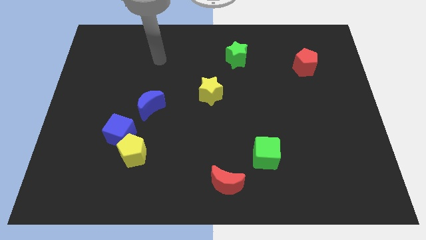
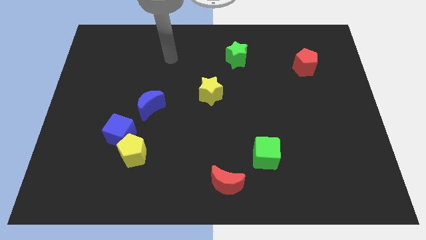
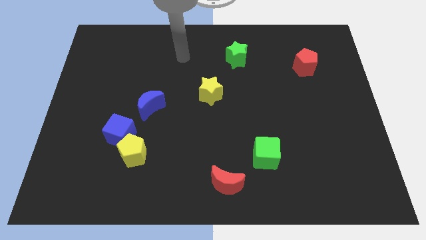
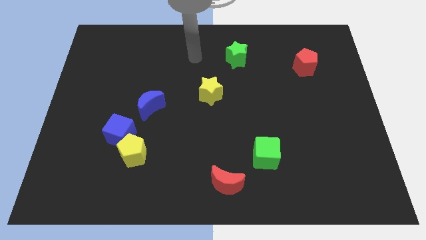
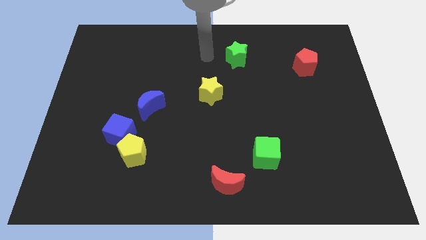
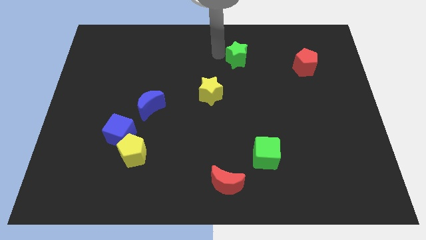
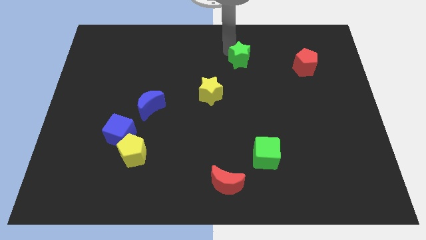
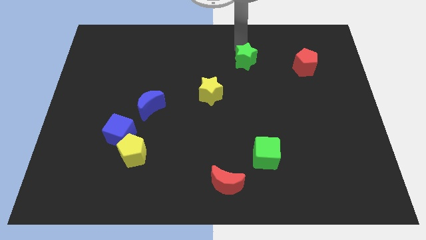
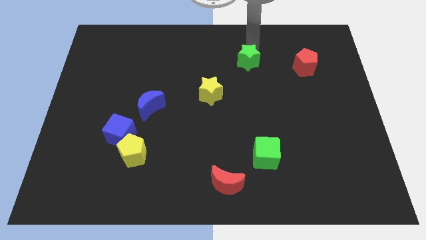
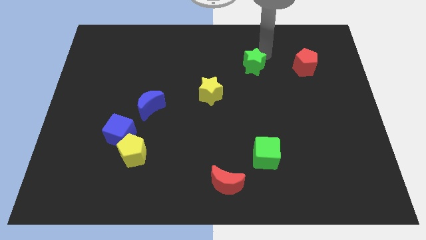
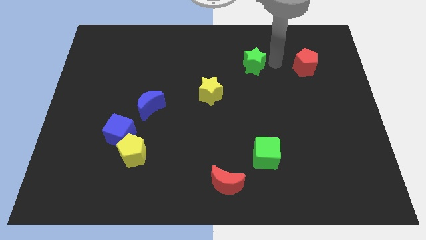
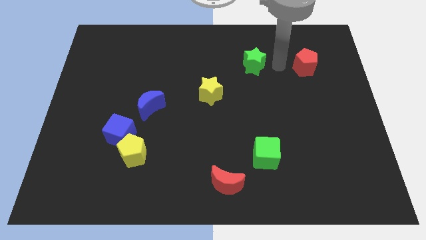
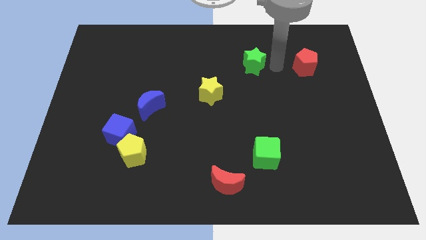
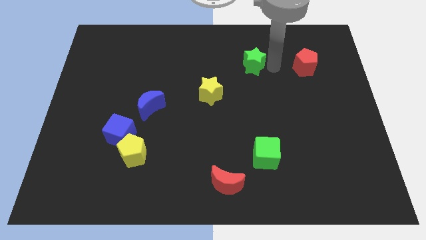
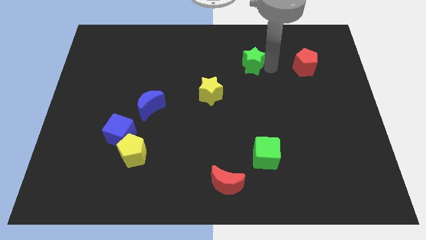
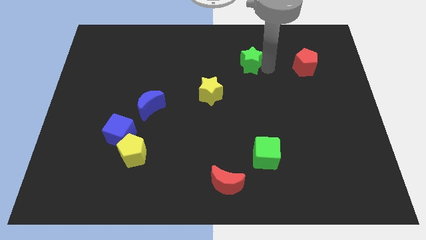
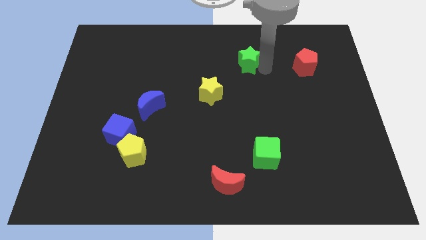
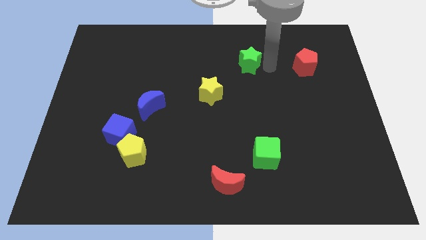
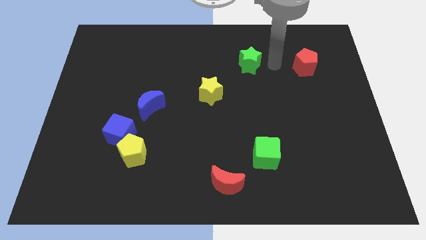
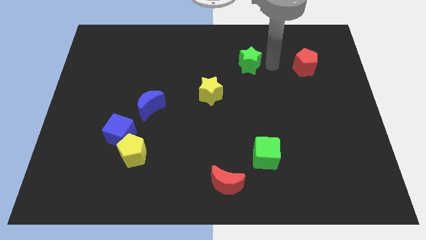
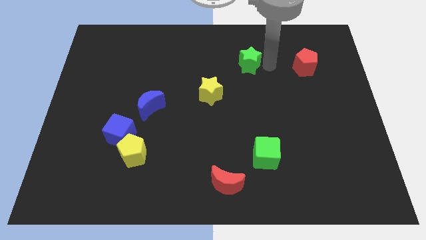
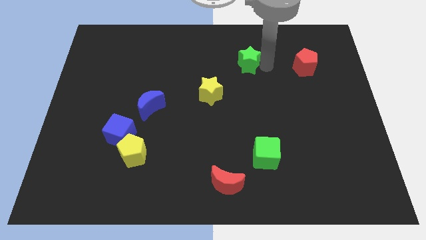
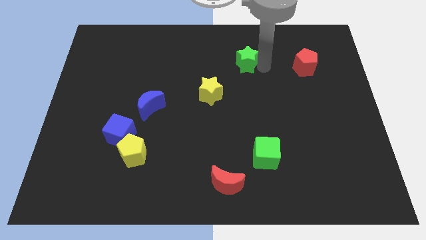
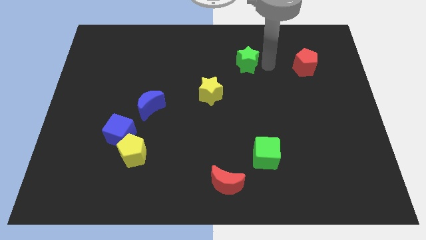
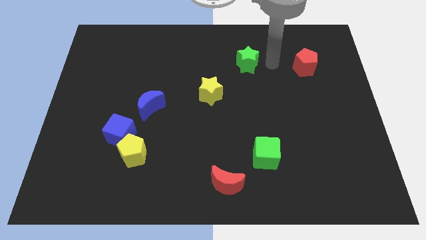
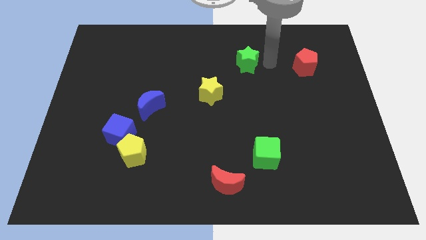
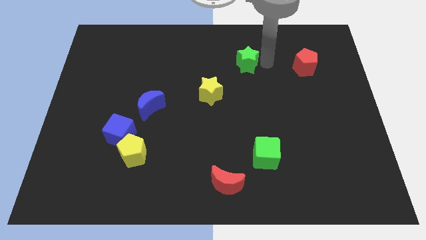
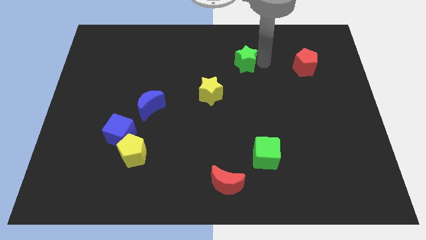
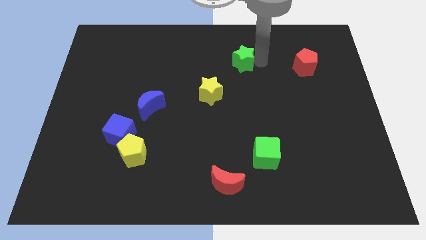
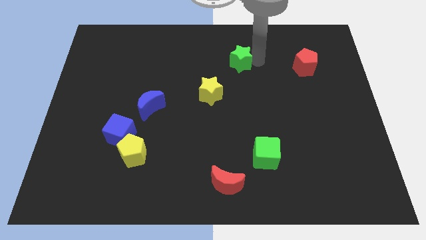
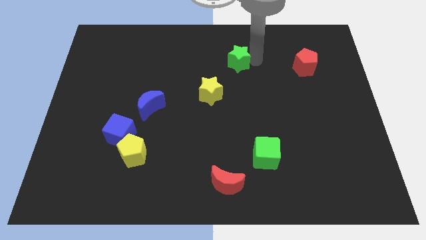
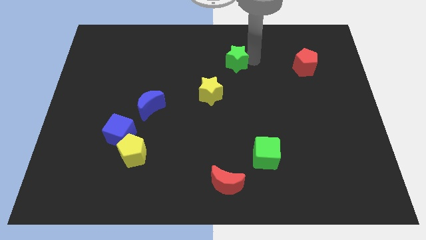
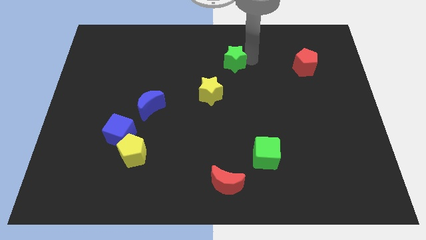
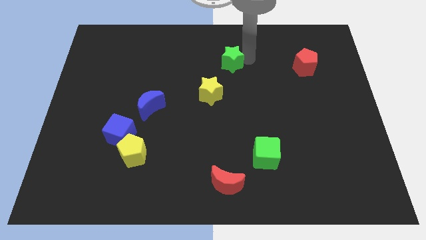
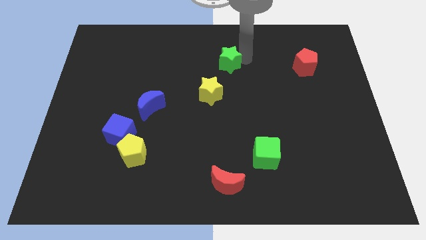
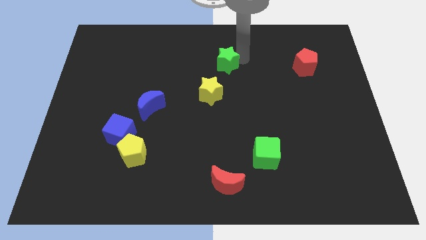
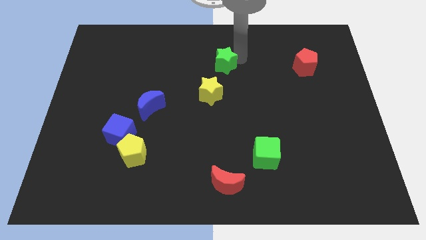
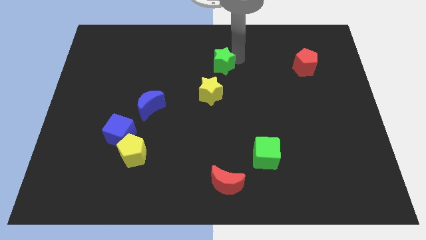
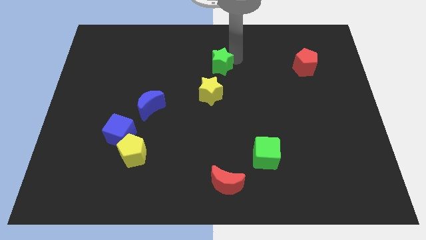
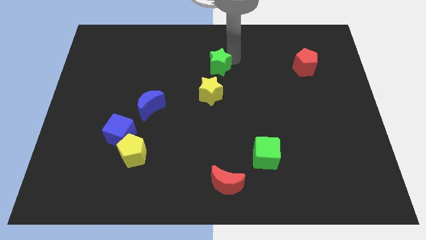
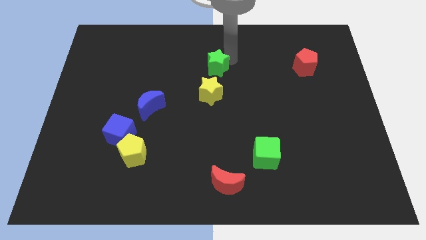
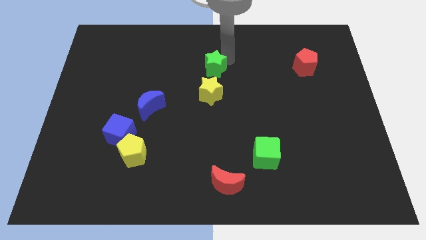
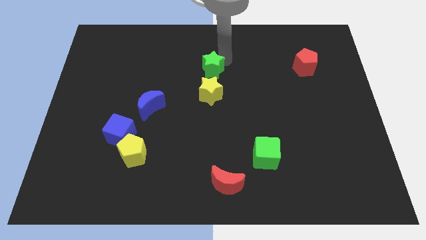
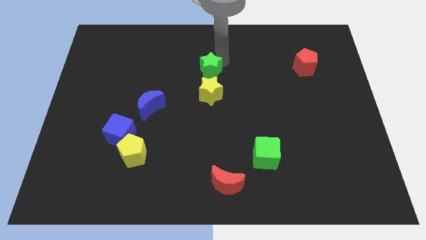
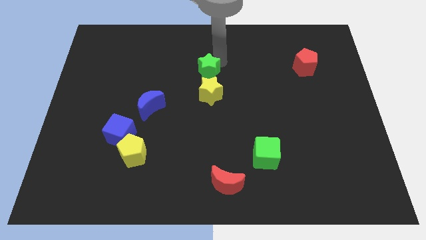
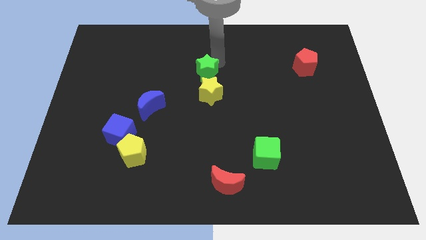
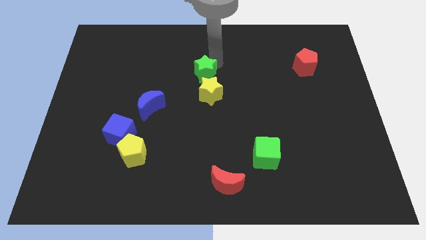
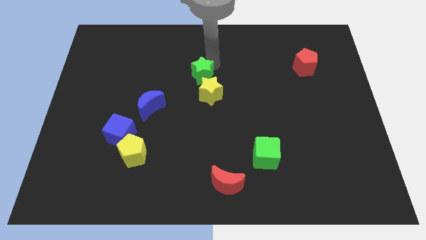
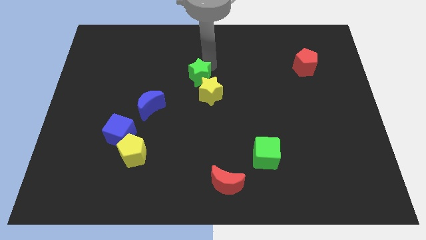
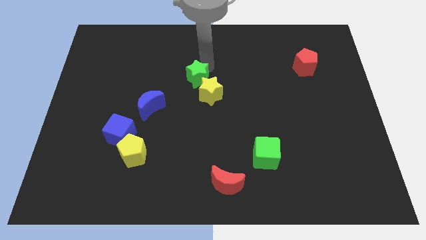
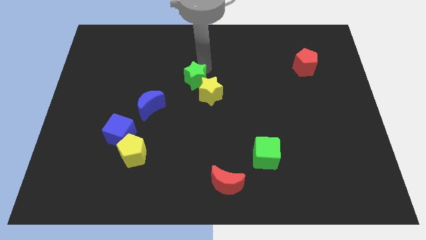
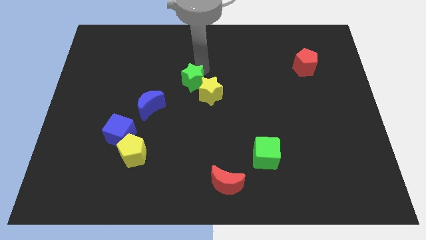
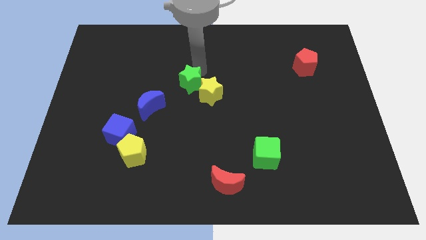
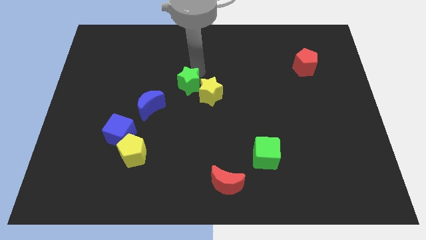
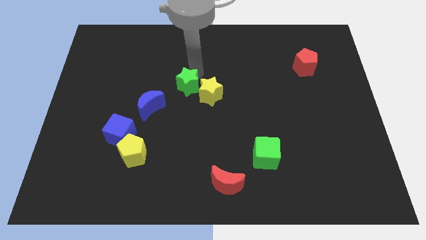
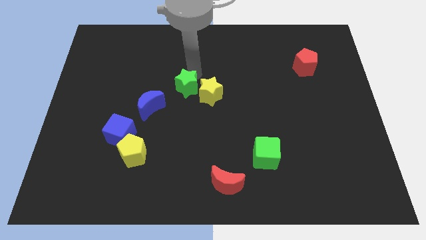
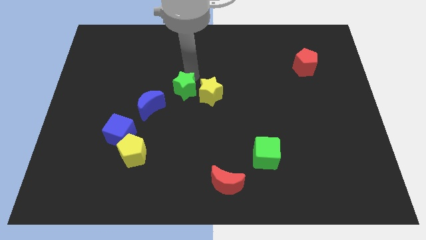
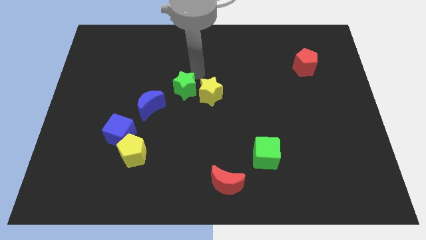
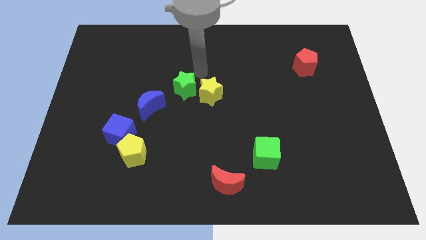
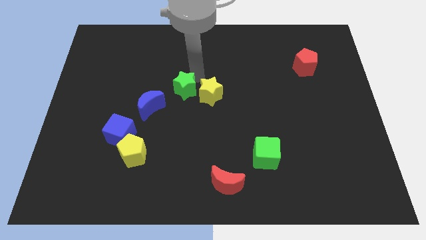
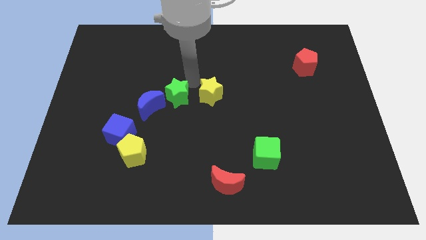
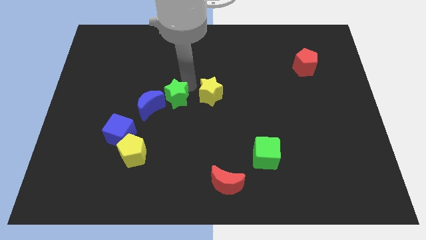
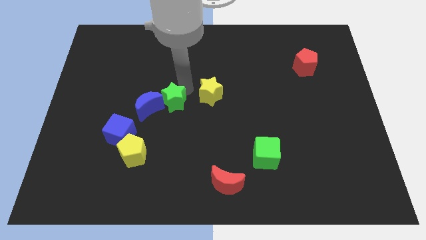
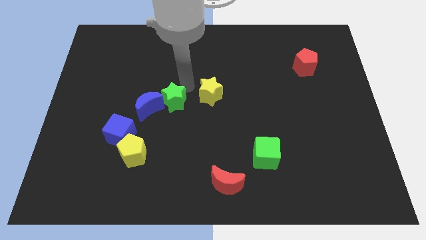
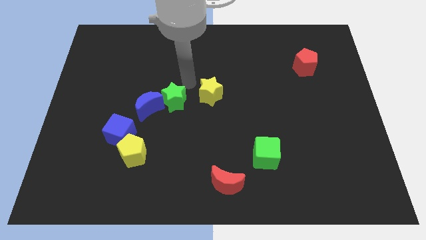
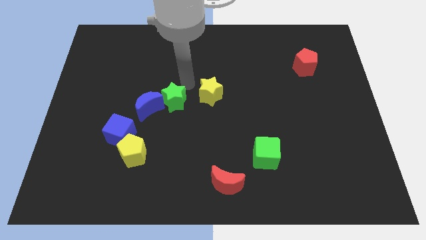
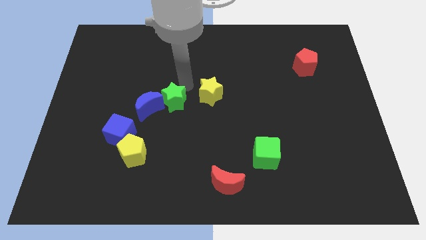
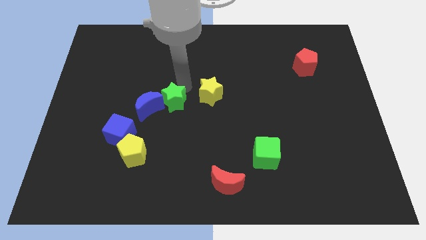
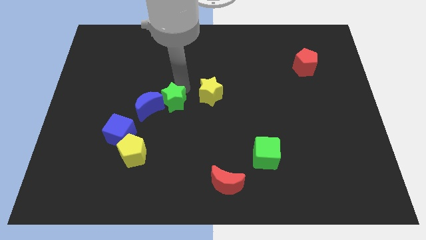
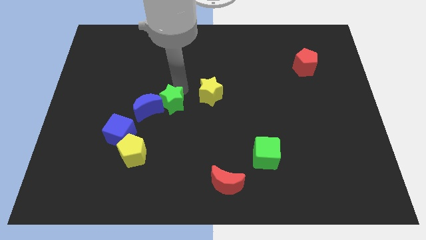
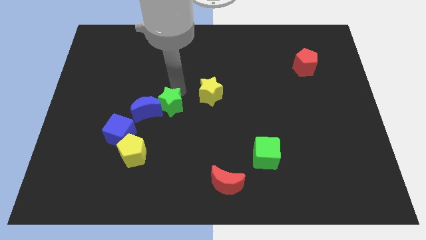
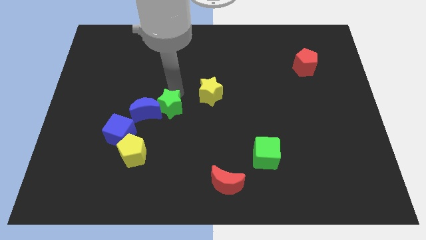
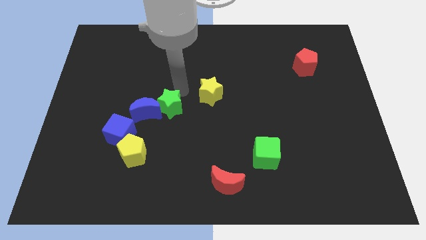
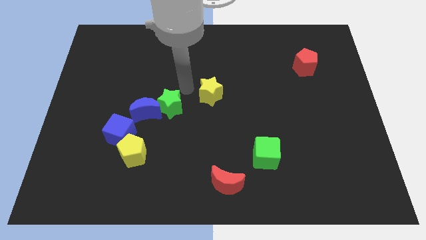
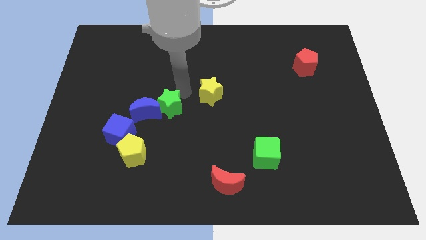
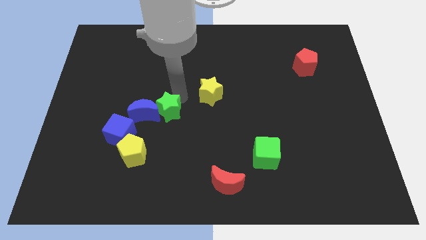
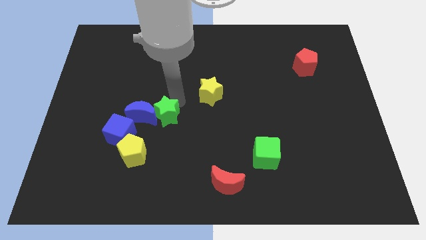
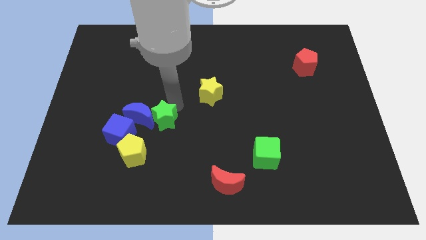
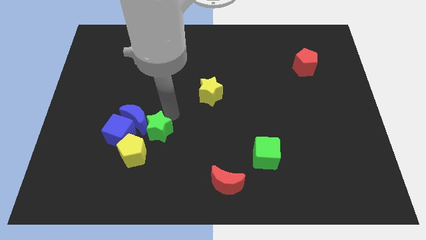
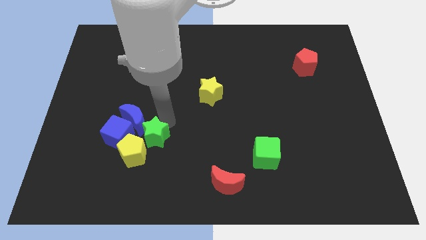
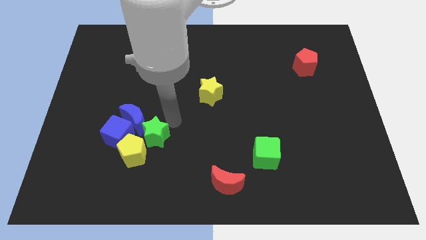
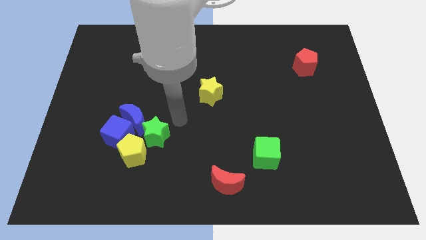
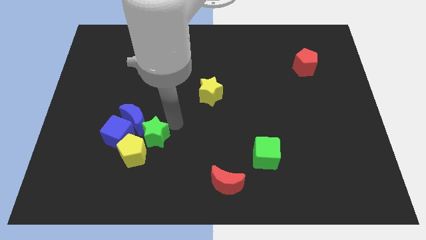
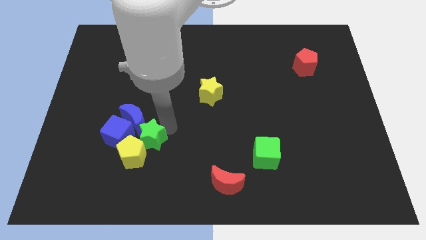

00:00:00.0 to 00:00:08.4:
push the green star towards the yellow pentagon
